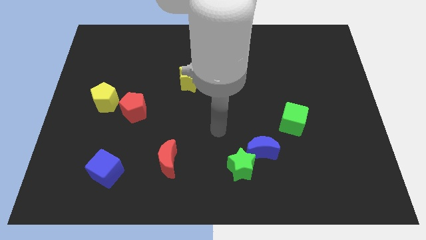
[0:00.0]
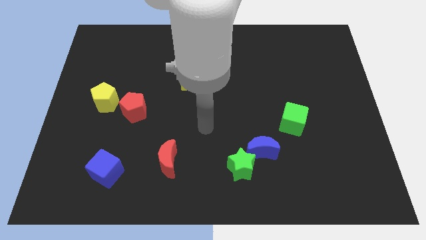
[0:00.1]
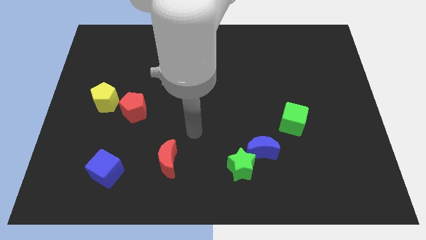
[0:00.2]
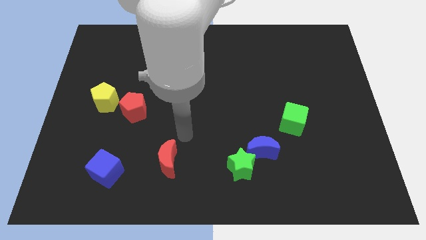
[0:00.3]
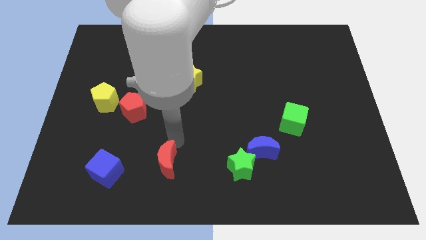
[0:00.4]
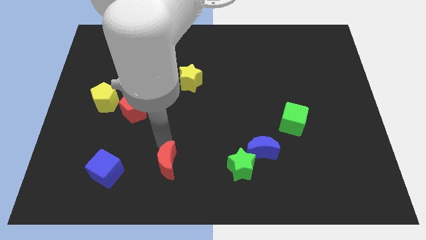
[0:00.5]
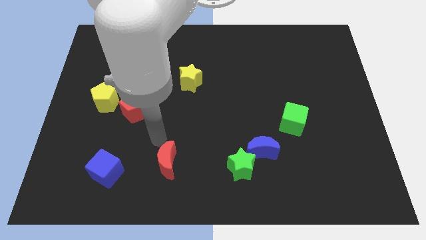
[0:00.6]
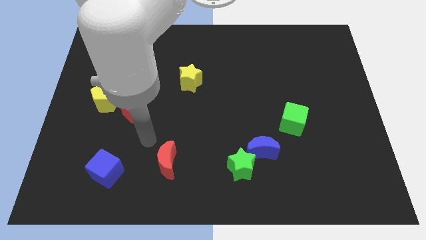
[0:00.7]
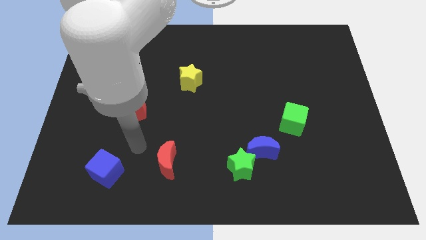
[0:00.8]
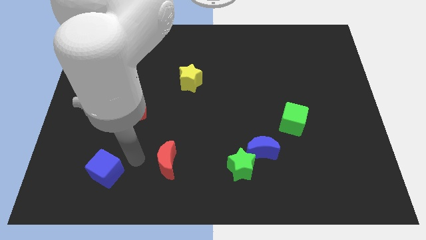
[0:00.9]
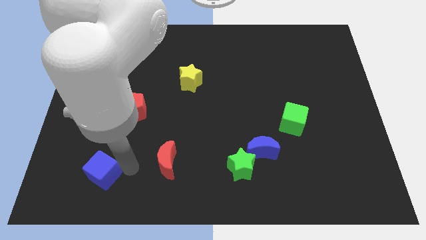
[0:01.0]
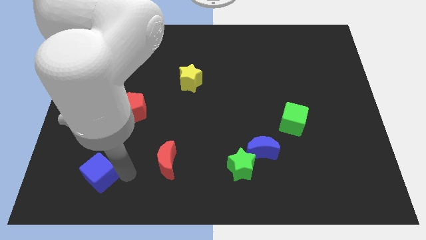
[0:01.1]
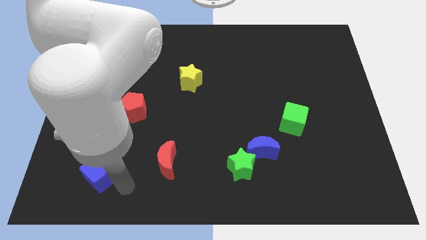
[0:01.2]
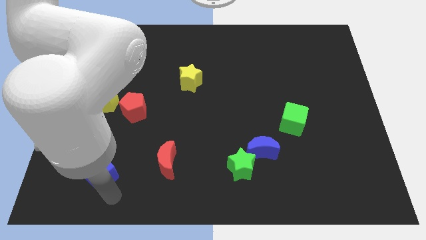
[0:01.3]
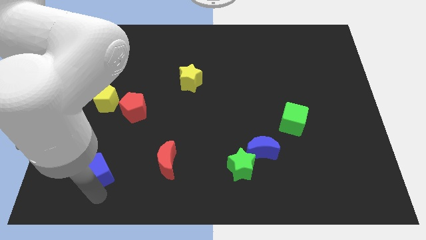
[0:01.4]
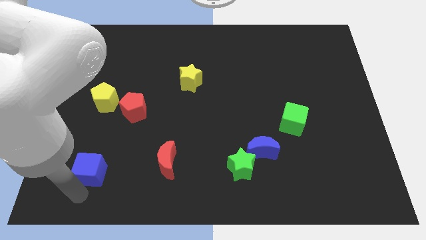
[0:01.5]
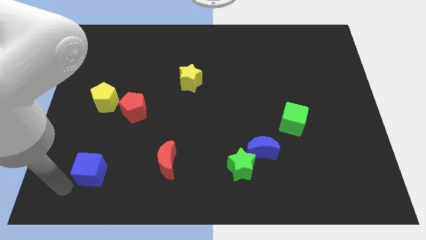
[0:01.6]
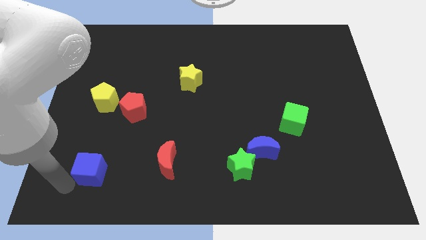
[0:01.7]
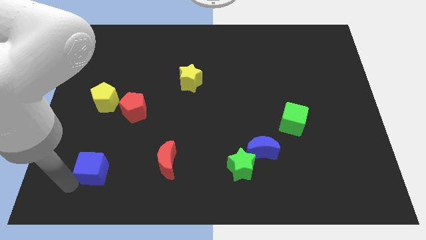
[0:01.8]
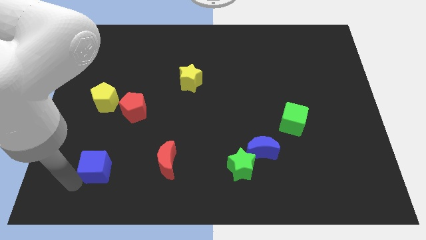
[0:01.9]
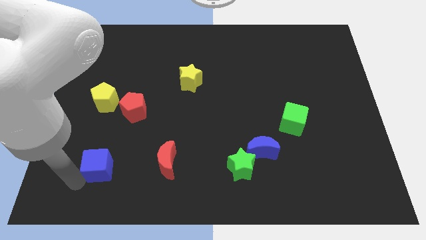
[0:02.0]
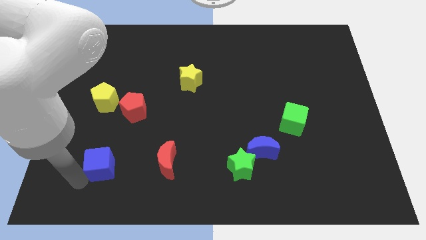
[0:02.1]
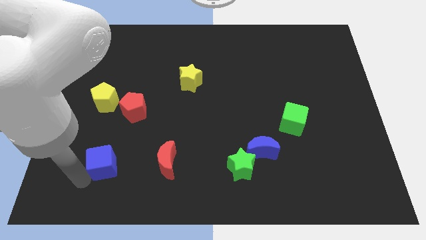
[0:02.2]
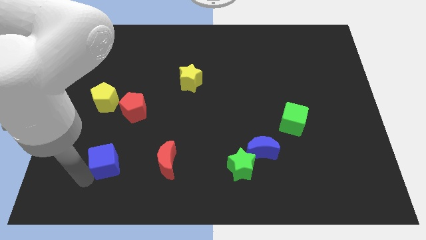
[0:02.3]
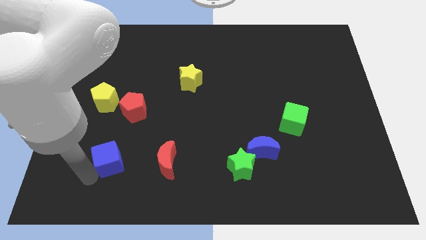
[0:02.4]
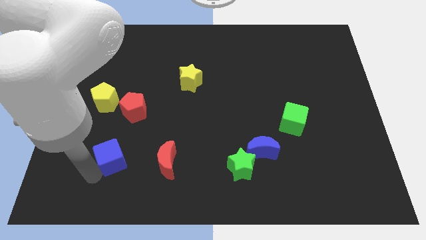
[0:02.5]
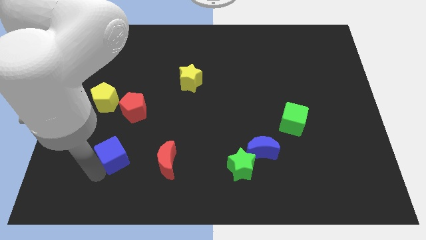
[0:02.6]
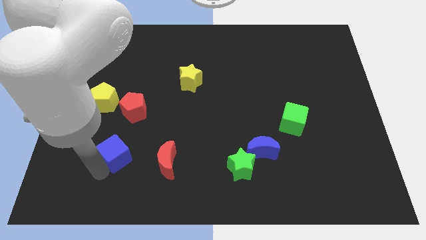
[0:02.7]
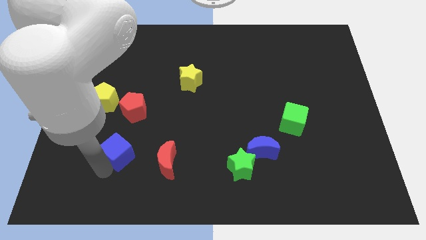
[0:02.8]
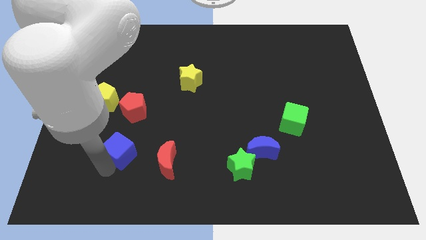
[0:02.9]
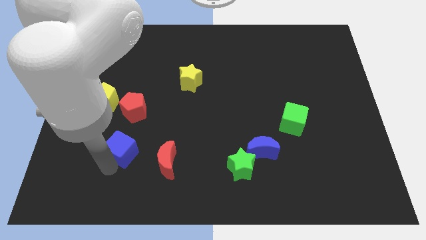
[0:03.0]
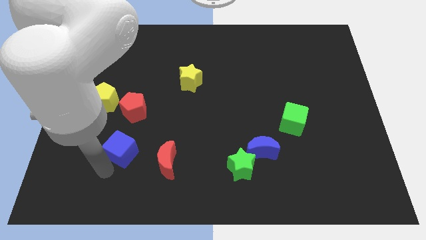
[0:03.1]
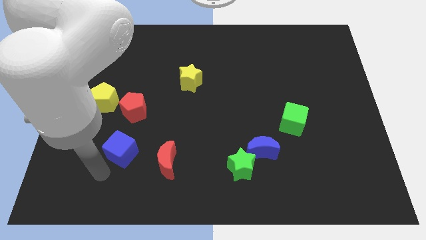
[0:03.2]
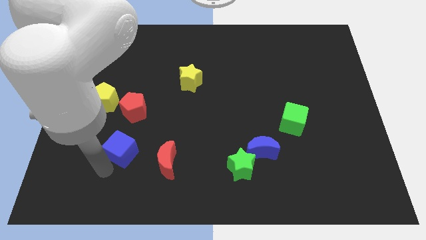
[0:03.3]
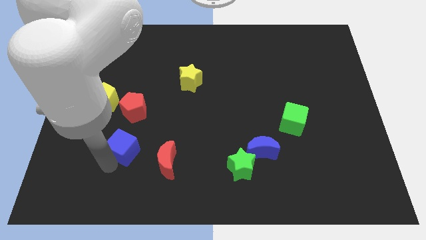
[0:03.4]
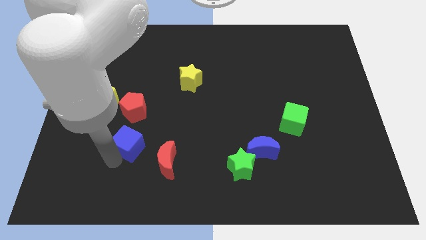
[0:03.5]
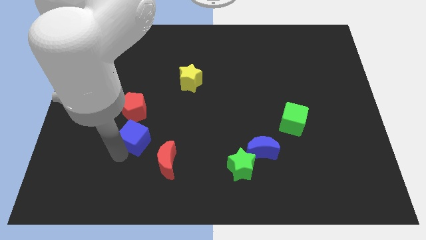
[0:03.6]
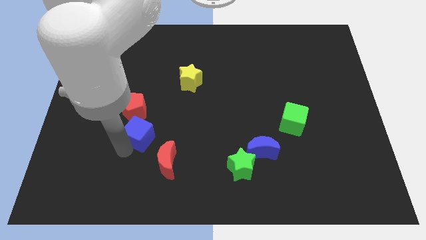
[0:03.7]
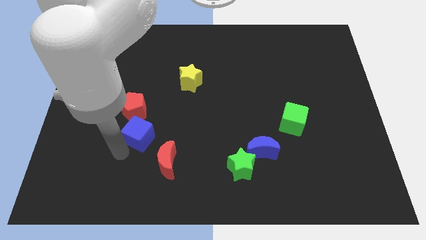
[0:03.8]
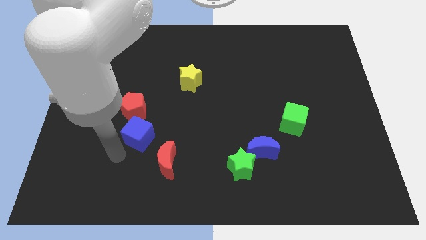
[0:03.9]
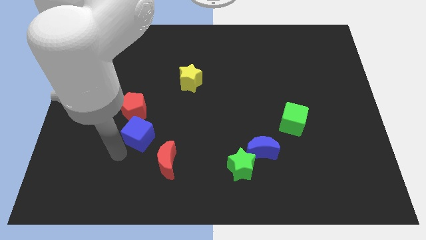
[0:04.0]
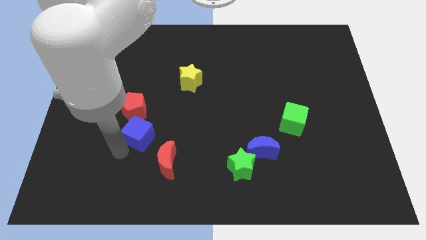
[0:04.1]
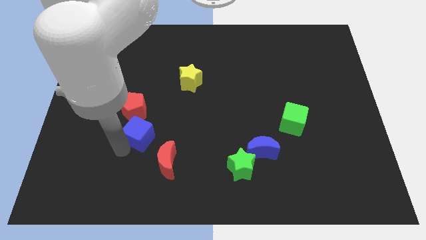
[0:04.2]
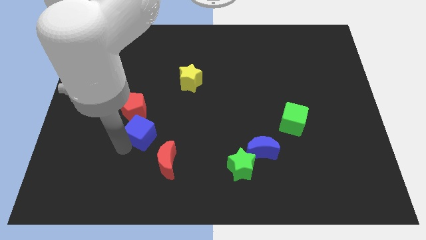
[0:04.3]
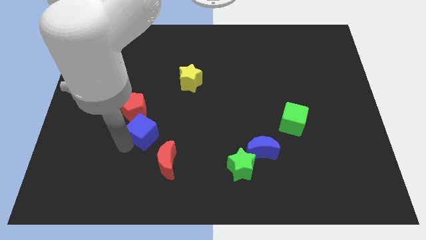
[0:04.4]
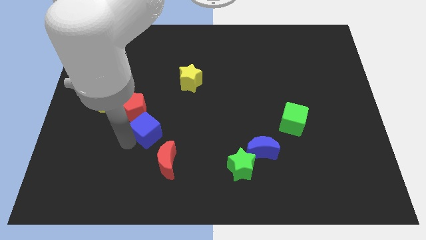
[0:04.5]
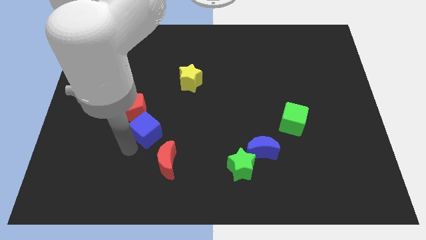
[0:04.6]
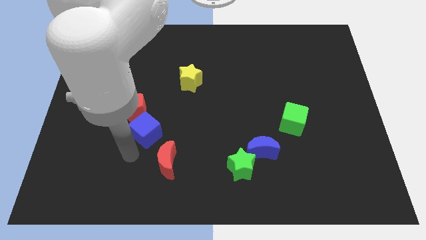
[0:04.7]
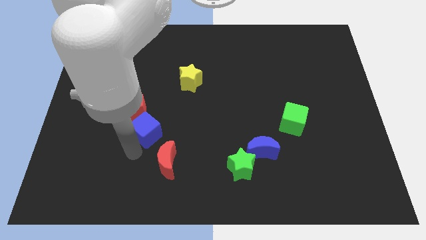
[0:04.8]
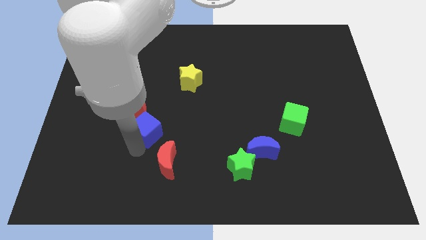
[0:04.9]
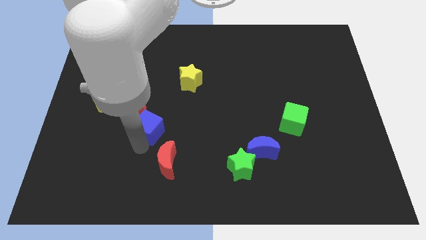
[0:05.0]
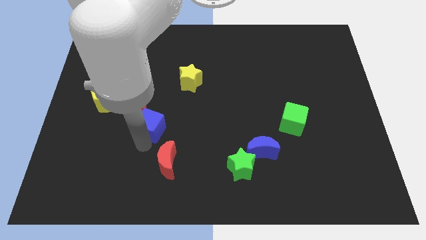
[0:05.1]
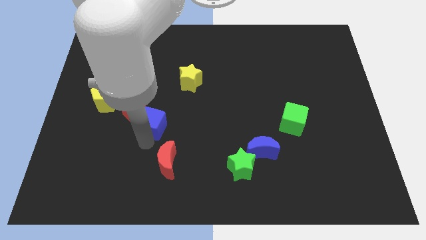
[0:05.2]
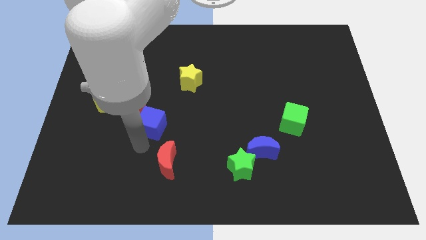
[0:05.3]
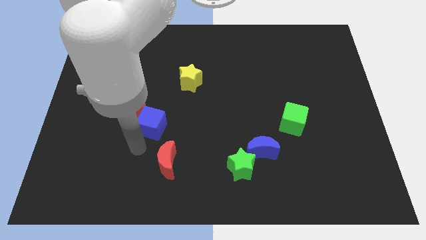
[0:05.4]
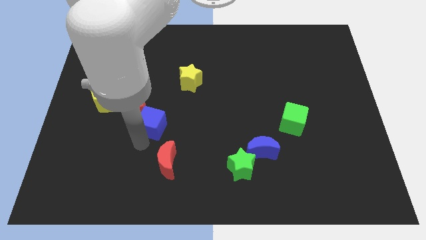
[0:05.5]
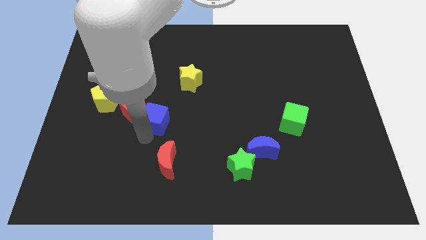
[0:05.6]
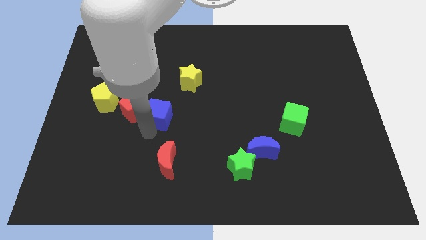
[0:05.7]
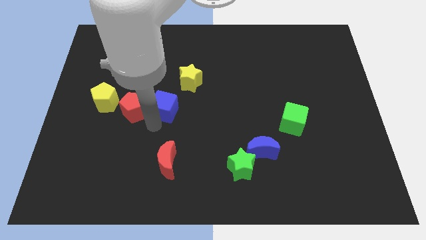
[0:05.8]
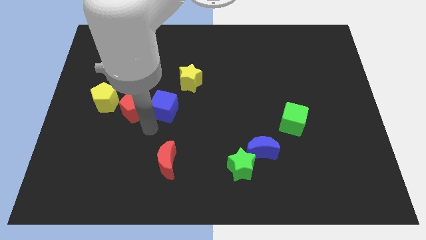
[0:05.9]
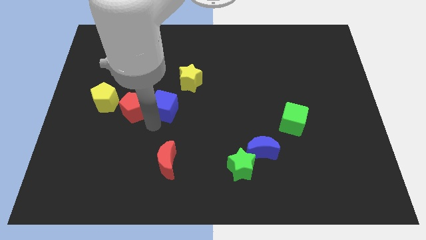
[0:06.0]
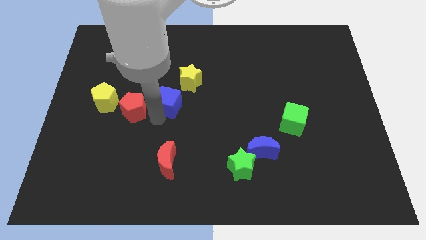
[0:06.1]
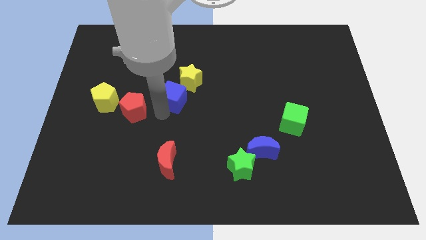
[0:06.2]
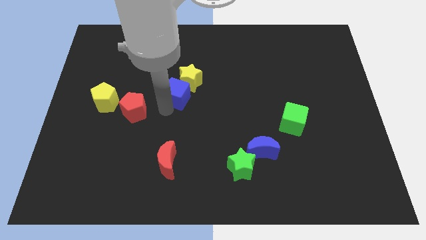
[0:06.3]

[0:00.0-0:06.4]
move the blue cube to the yellow star

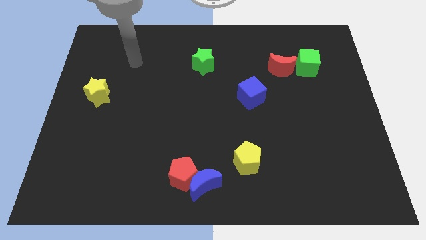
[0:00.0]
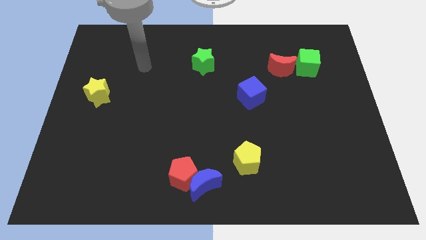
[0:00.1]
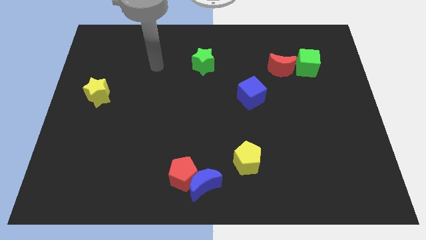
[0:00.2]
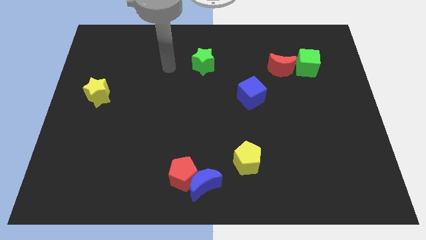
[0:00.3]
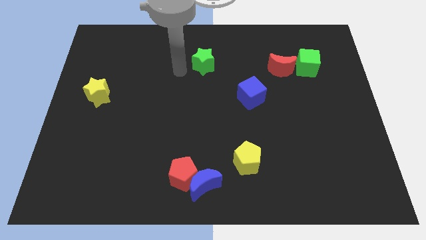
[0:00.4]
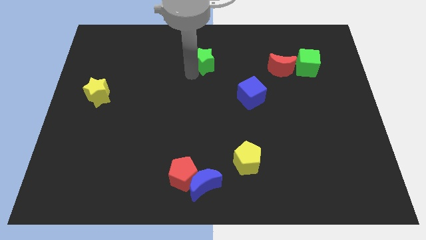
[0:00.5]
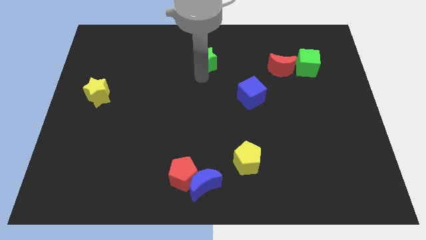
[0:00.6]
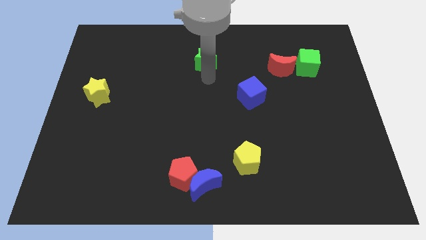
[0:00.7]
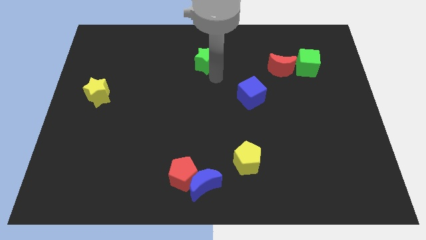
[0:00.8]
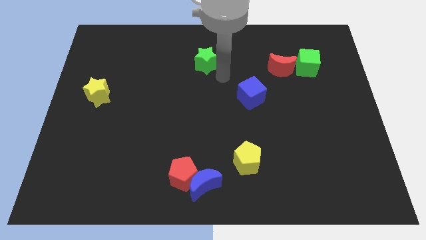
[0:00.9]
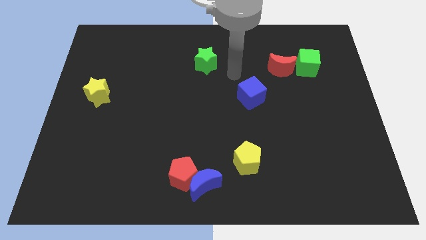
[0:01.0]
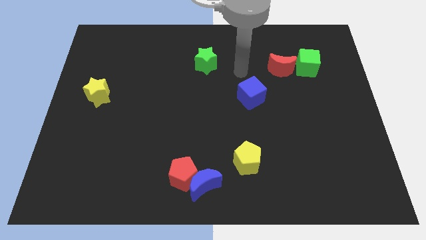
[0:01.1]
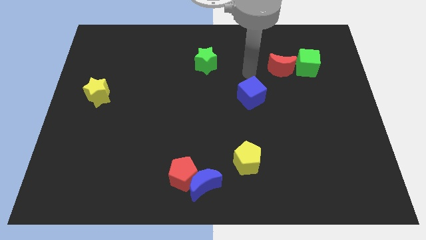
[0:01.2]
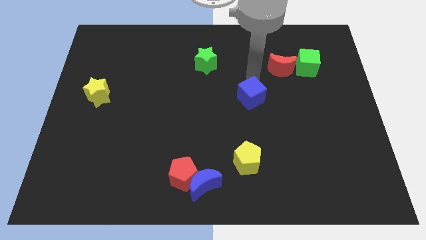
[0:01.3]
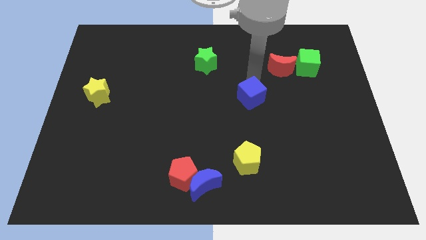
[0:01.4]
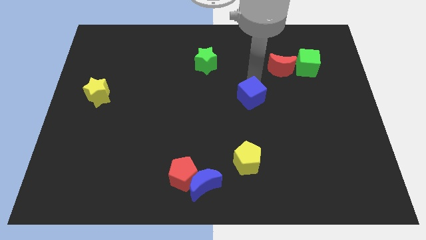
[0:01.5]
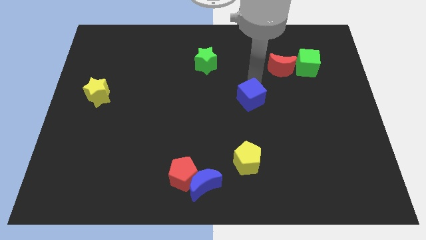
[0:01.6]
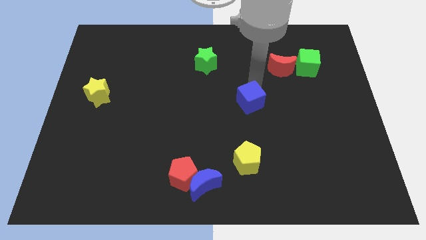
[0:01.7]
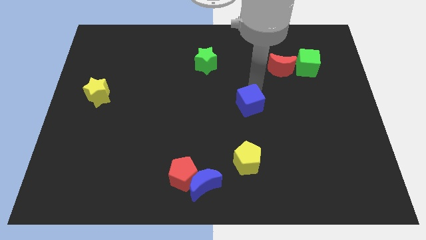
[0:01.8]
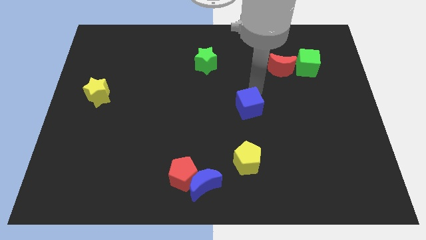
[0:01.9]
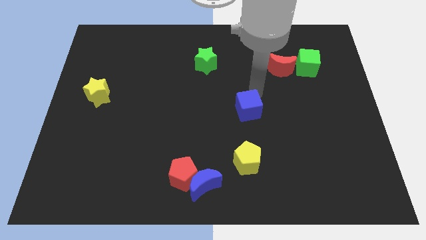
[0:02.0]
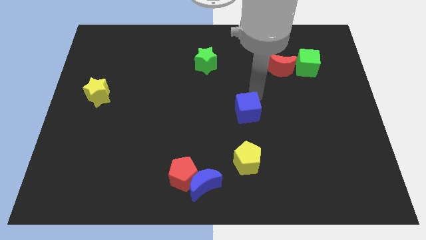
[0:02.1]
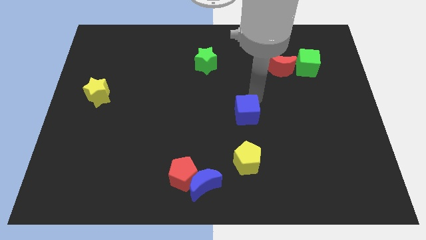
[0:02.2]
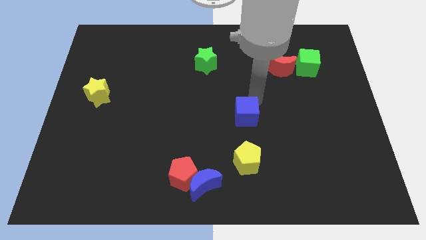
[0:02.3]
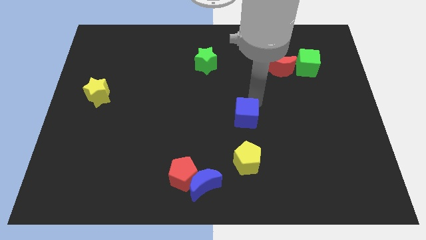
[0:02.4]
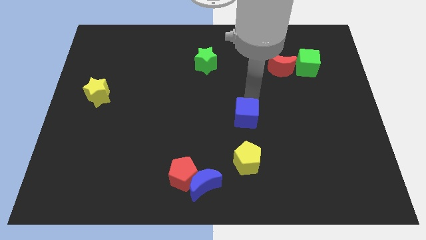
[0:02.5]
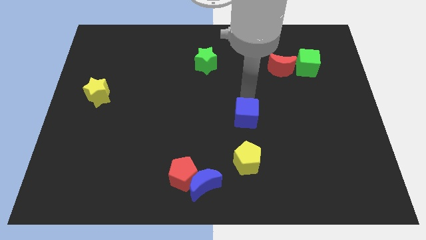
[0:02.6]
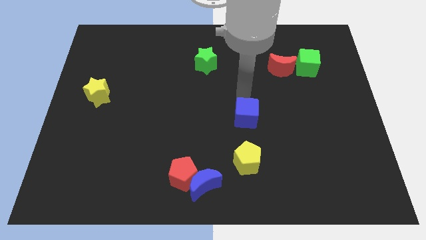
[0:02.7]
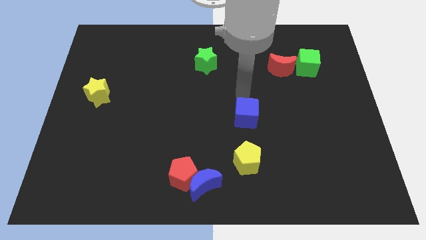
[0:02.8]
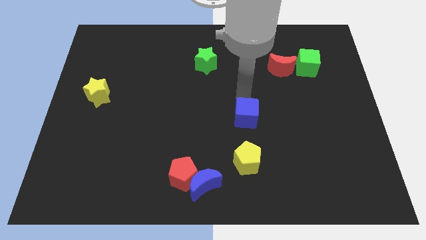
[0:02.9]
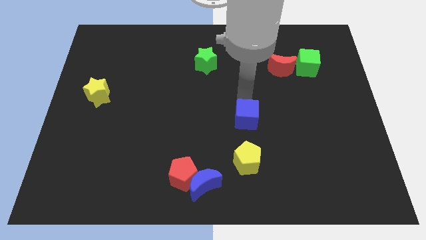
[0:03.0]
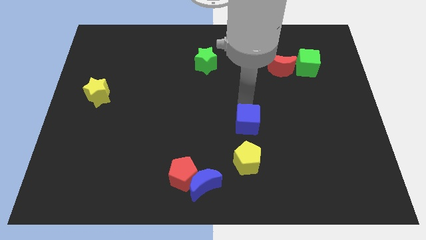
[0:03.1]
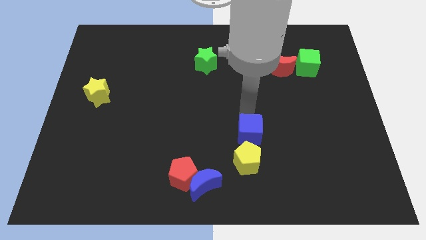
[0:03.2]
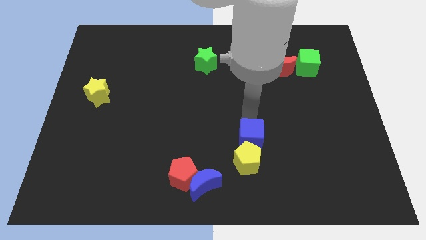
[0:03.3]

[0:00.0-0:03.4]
move the blue cube to the yellow pentagon
